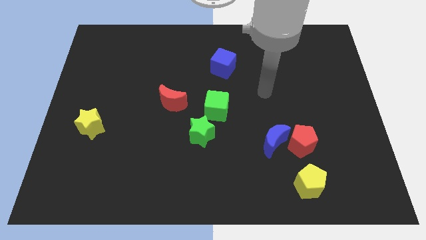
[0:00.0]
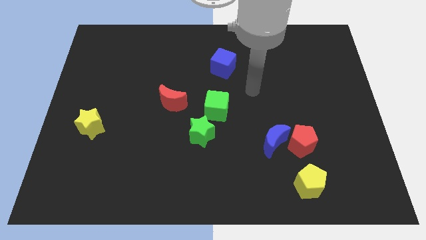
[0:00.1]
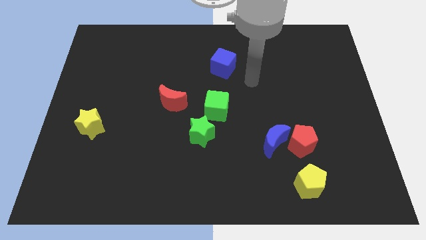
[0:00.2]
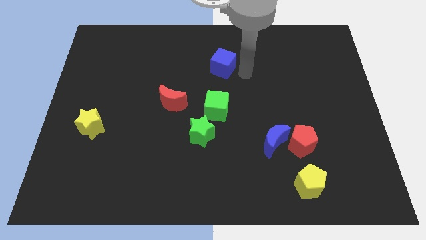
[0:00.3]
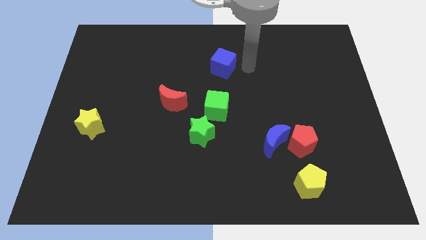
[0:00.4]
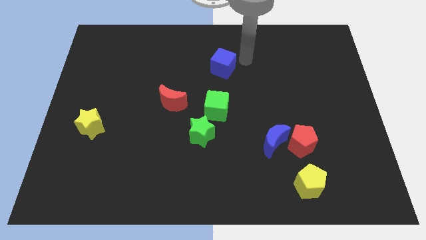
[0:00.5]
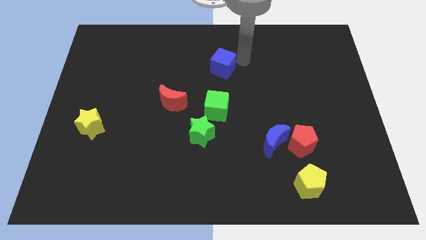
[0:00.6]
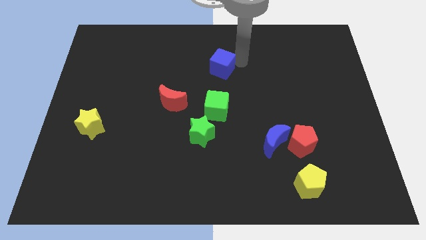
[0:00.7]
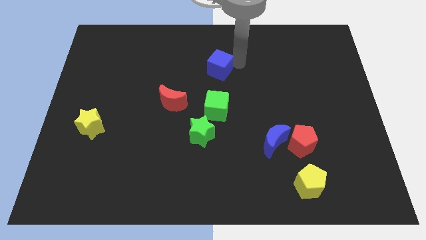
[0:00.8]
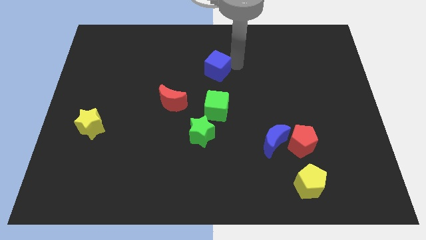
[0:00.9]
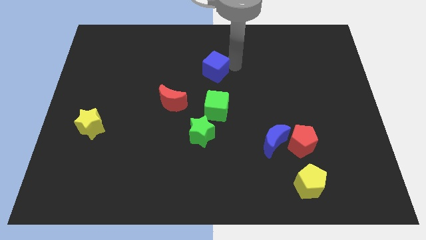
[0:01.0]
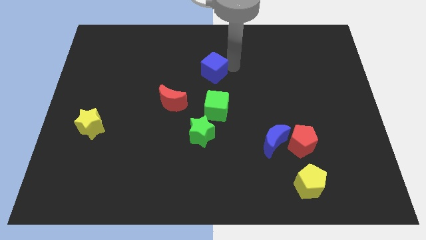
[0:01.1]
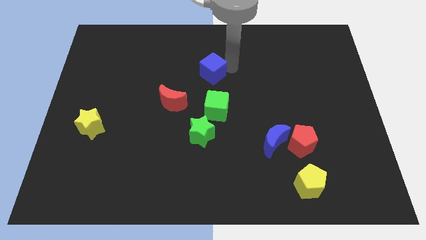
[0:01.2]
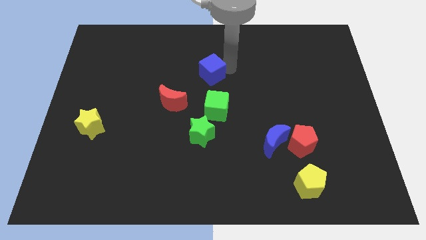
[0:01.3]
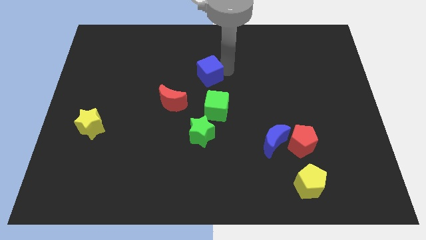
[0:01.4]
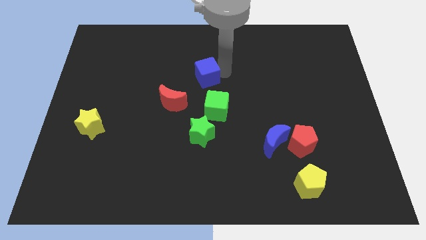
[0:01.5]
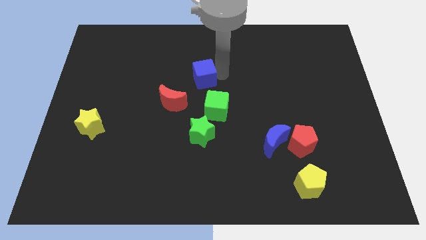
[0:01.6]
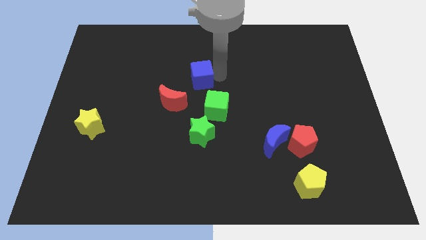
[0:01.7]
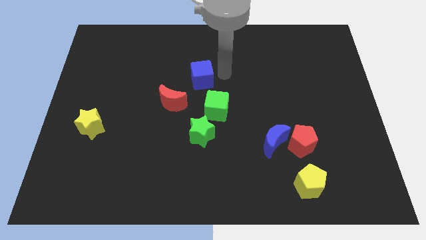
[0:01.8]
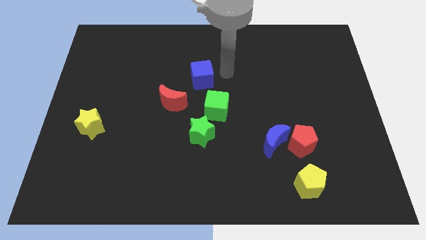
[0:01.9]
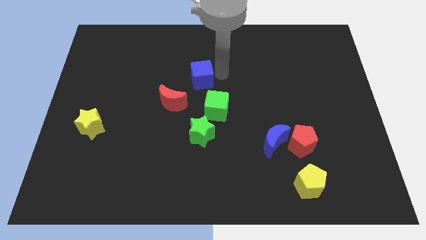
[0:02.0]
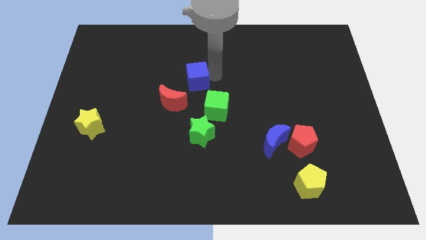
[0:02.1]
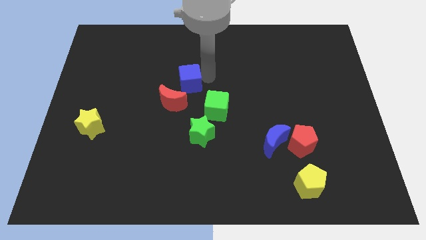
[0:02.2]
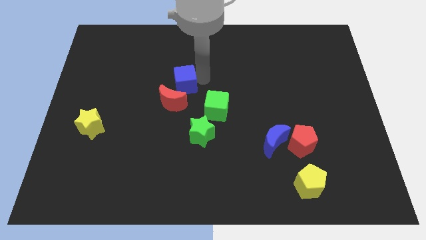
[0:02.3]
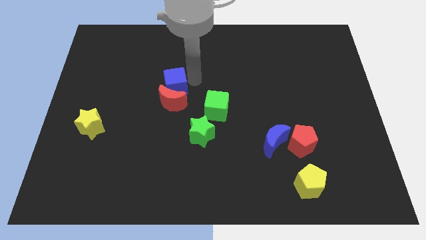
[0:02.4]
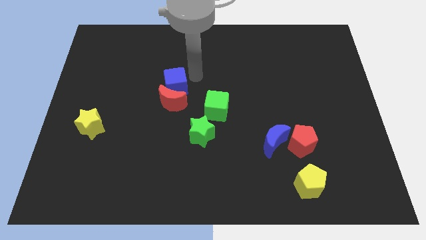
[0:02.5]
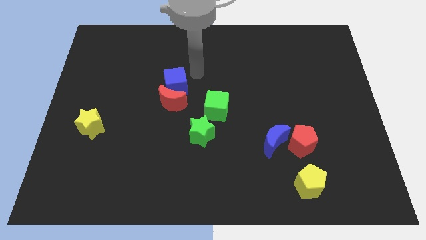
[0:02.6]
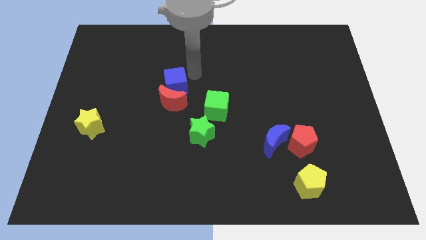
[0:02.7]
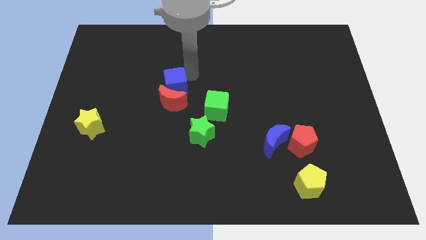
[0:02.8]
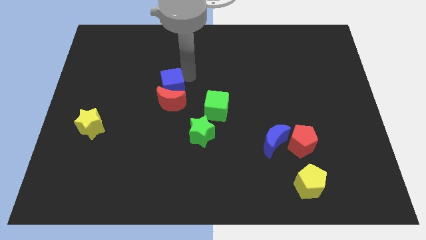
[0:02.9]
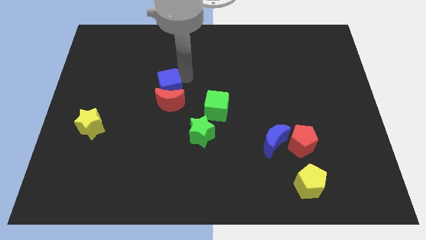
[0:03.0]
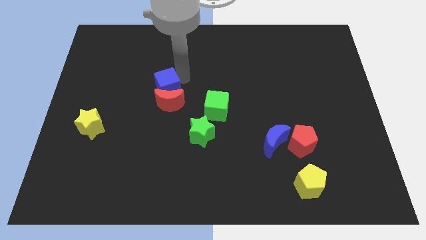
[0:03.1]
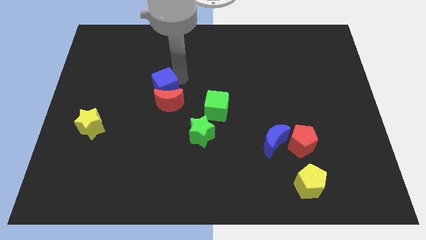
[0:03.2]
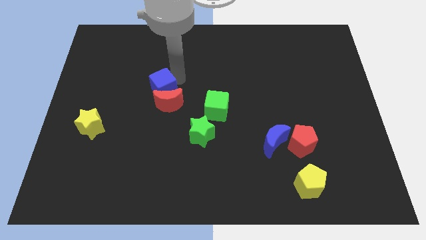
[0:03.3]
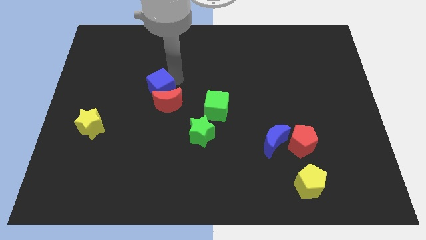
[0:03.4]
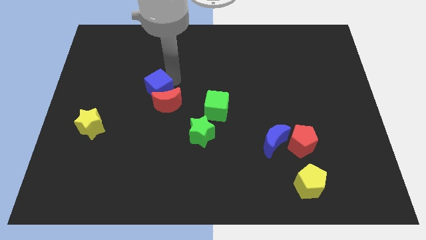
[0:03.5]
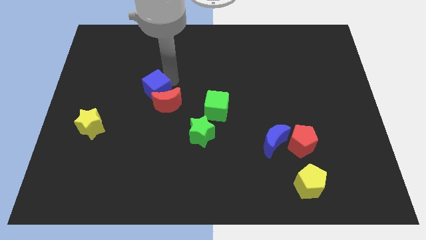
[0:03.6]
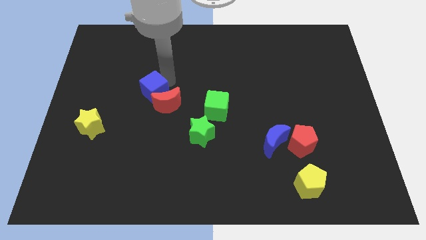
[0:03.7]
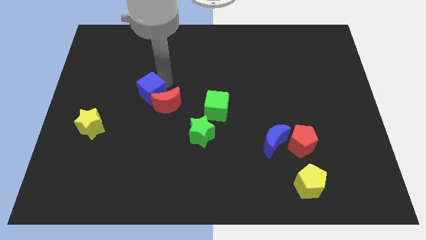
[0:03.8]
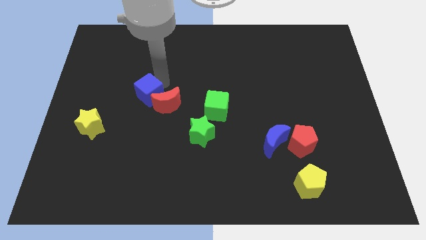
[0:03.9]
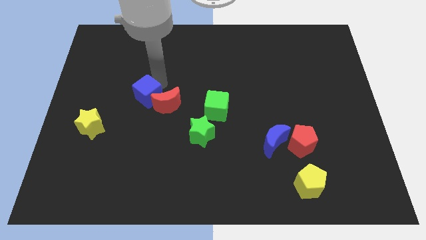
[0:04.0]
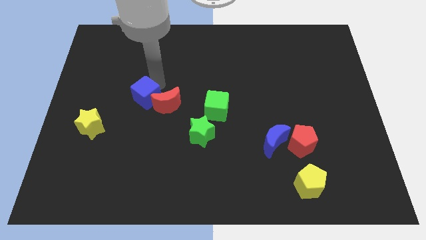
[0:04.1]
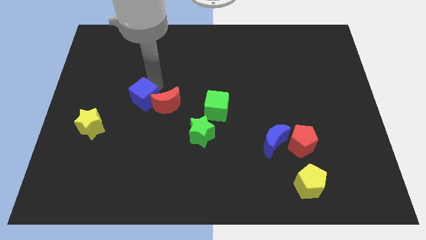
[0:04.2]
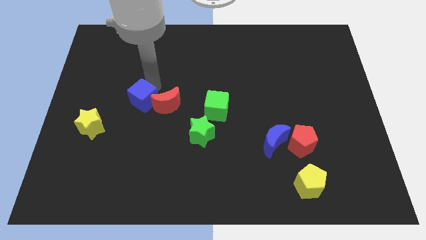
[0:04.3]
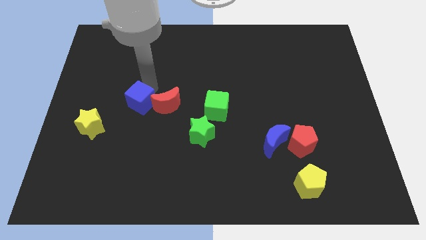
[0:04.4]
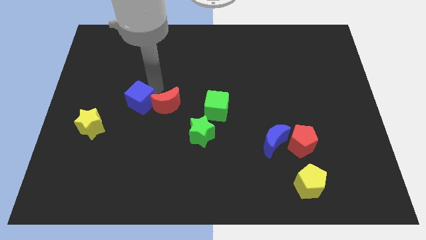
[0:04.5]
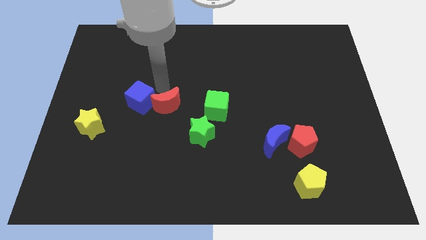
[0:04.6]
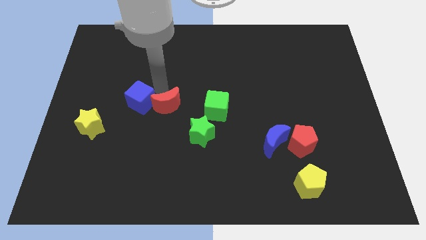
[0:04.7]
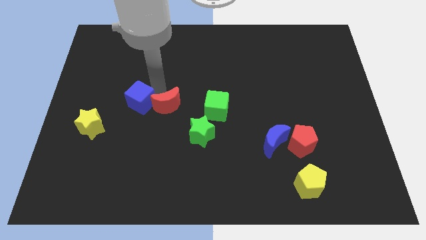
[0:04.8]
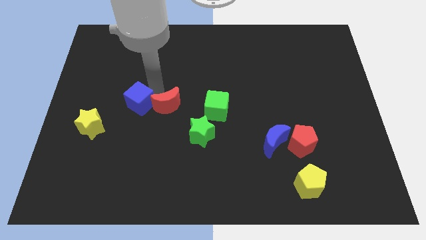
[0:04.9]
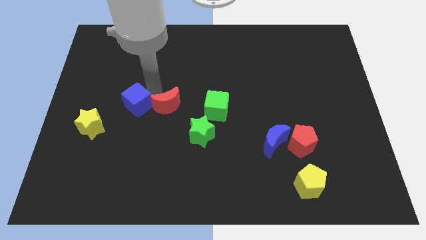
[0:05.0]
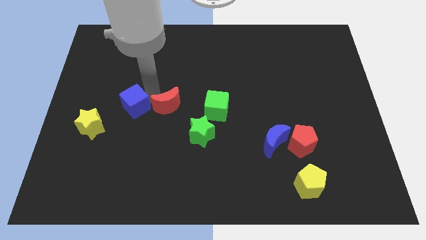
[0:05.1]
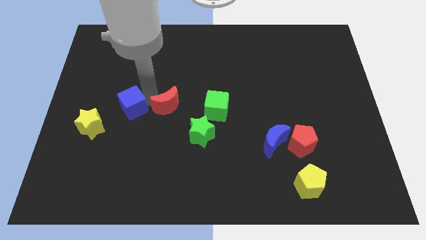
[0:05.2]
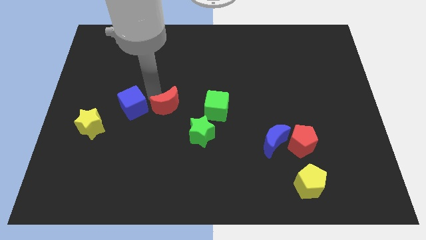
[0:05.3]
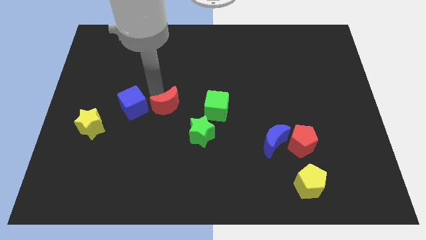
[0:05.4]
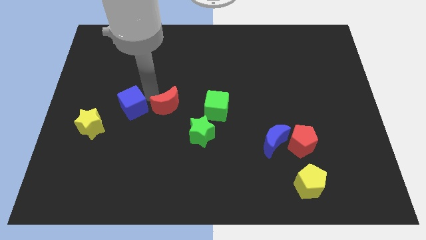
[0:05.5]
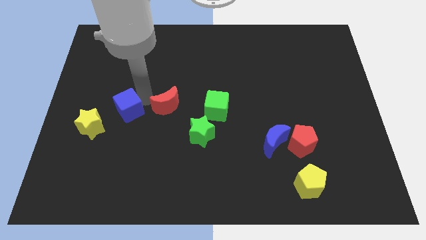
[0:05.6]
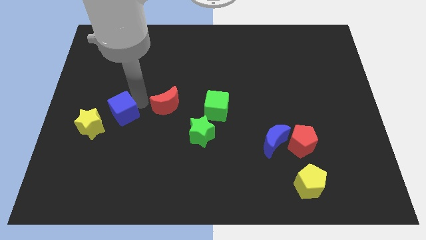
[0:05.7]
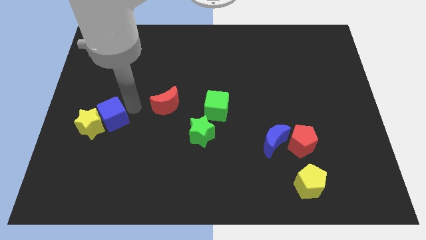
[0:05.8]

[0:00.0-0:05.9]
push the blue cube close to the yellow star

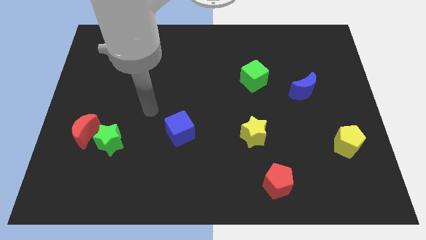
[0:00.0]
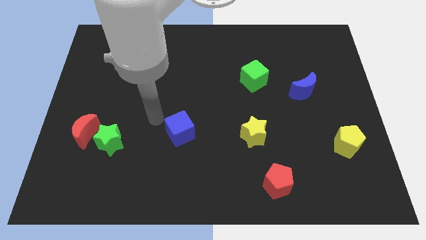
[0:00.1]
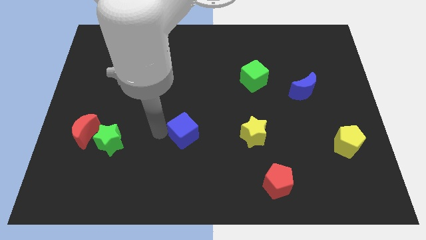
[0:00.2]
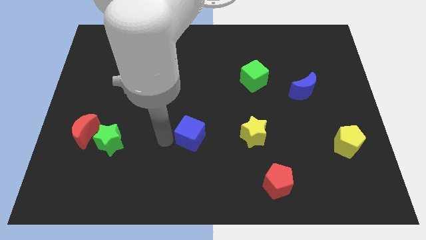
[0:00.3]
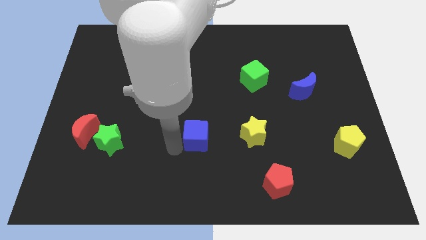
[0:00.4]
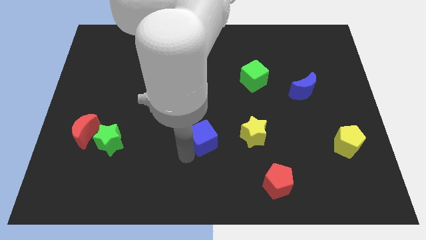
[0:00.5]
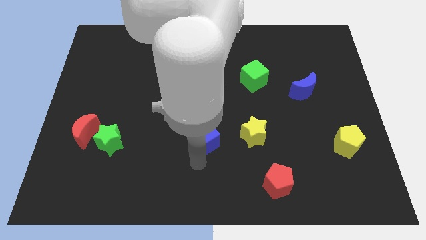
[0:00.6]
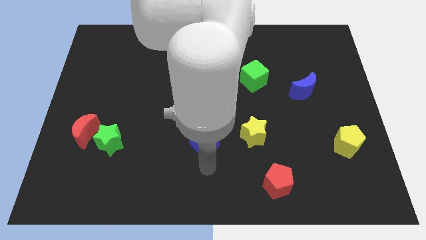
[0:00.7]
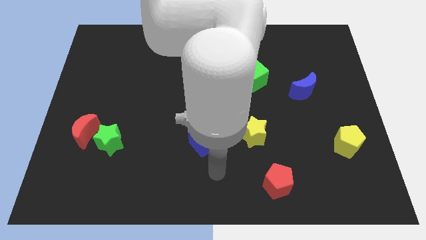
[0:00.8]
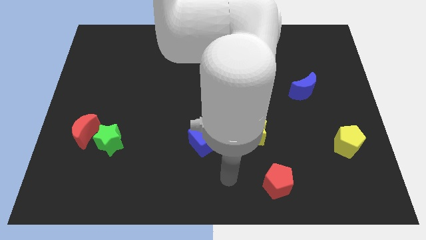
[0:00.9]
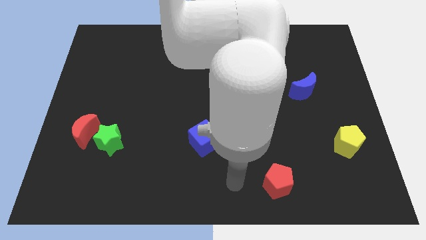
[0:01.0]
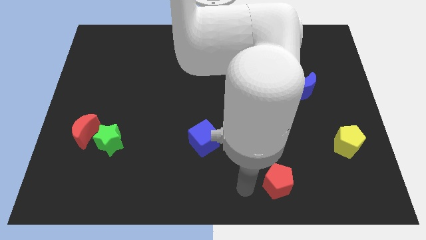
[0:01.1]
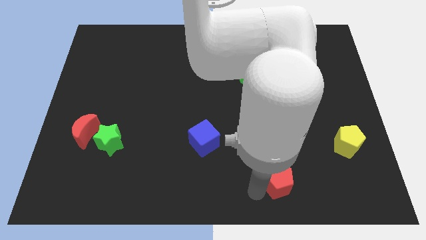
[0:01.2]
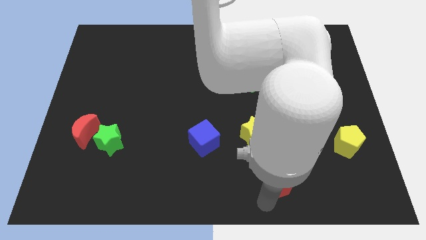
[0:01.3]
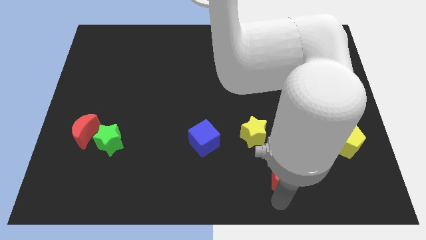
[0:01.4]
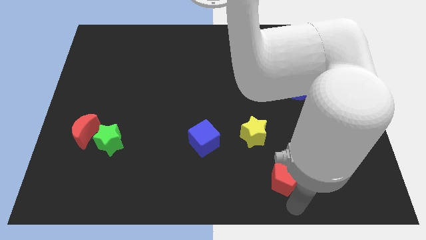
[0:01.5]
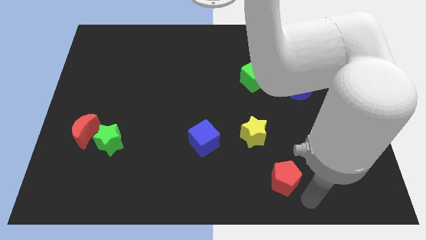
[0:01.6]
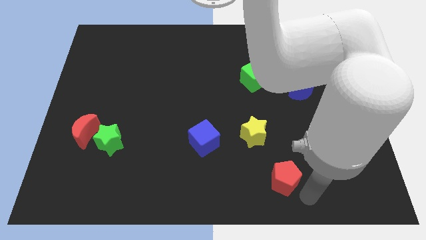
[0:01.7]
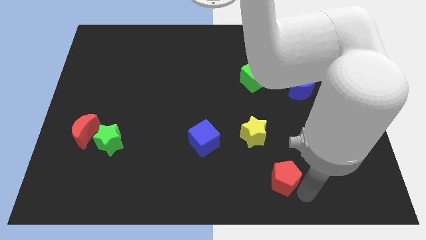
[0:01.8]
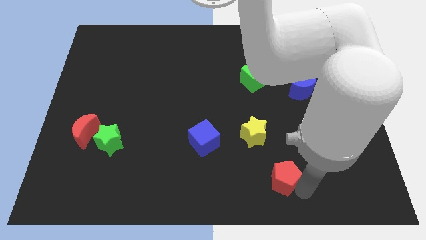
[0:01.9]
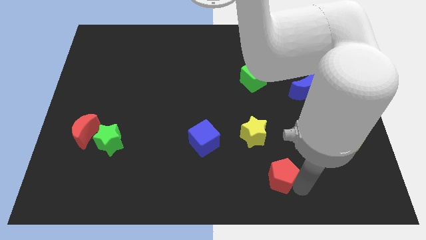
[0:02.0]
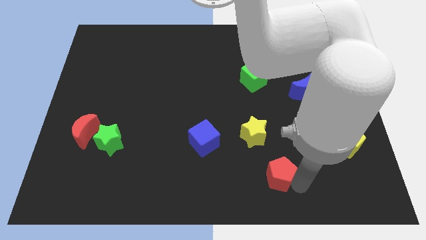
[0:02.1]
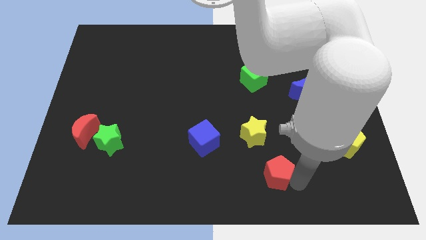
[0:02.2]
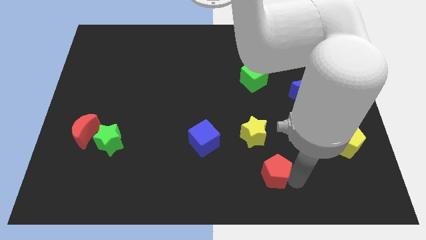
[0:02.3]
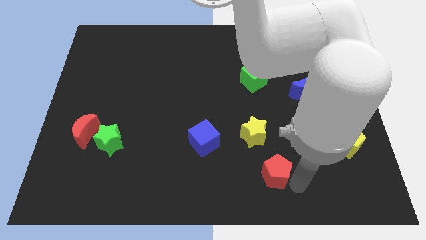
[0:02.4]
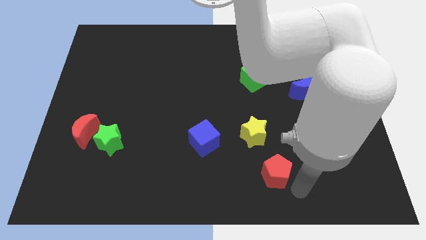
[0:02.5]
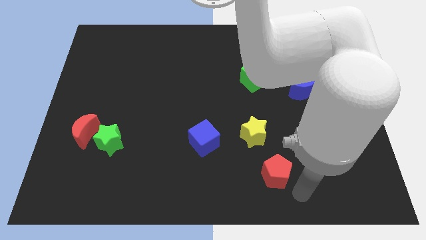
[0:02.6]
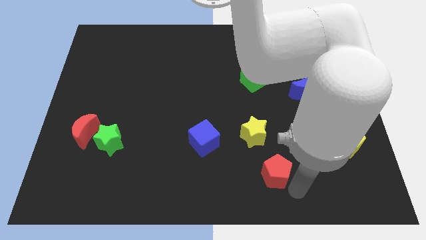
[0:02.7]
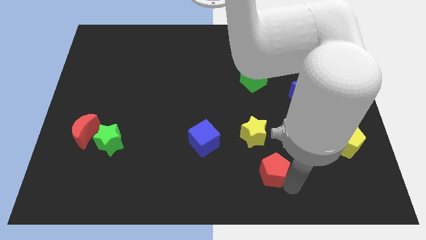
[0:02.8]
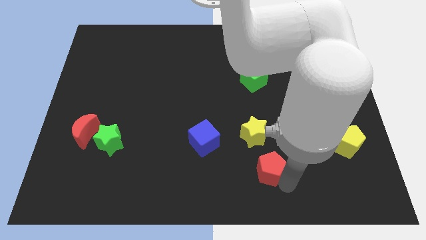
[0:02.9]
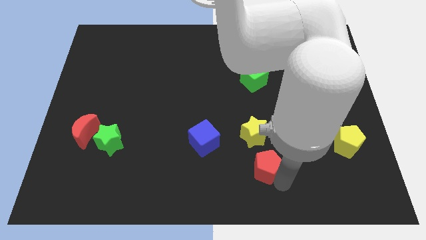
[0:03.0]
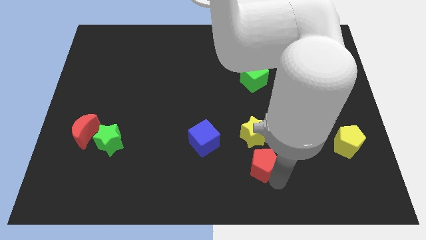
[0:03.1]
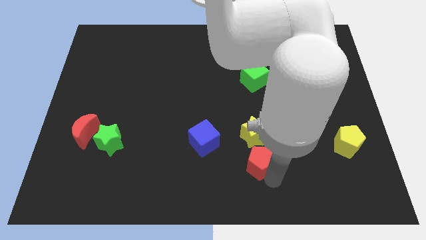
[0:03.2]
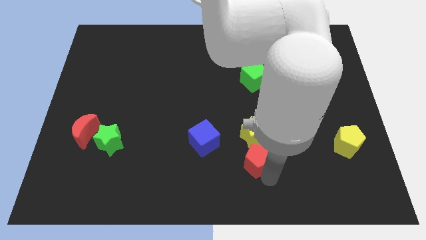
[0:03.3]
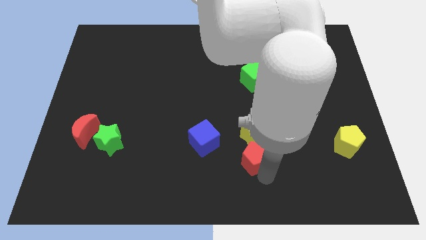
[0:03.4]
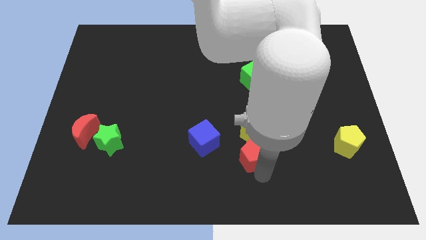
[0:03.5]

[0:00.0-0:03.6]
slide the red pentagon next to the yellow star
